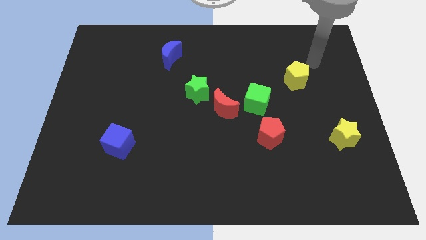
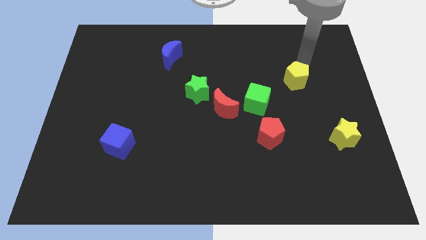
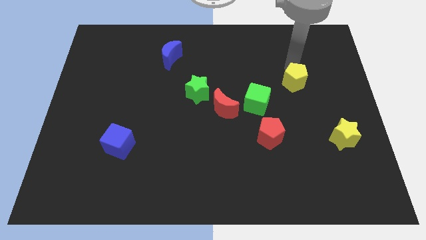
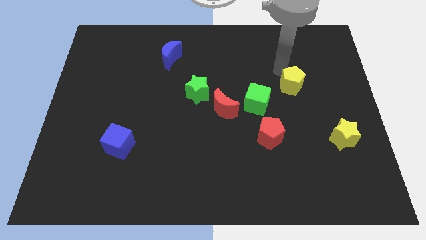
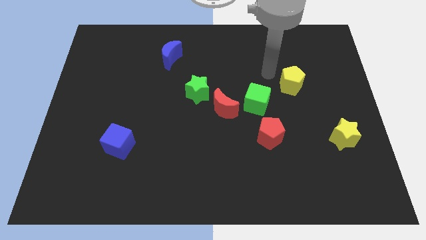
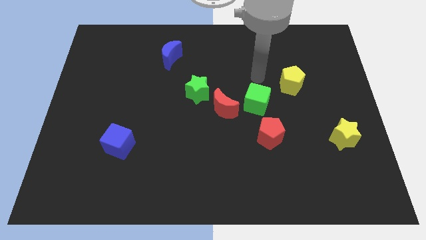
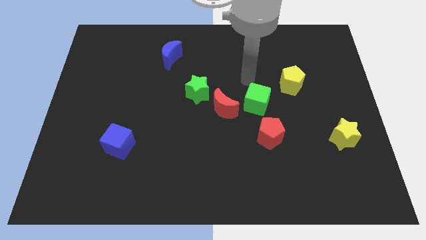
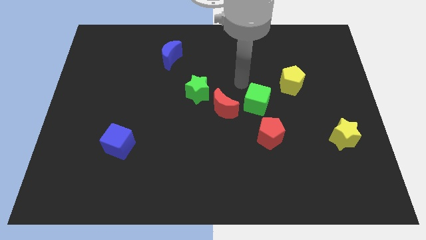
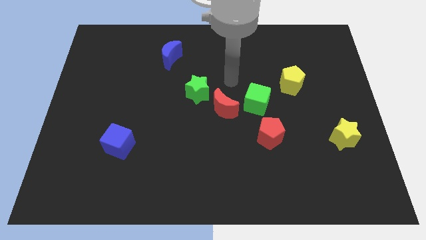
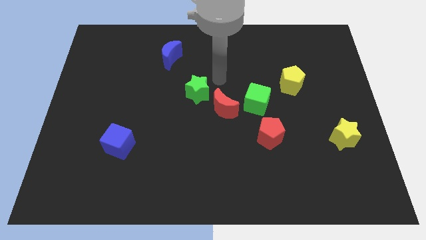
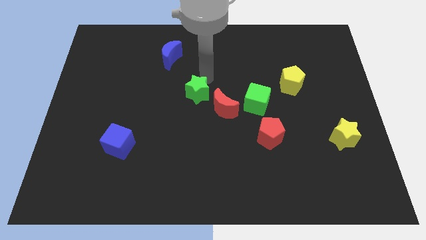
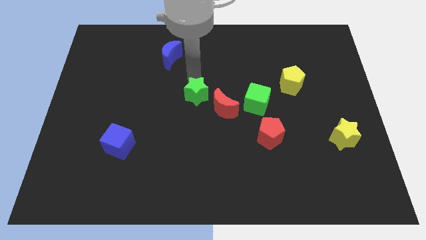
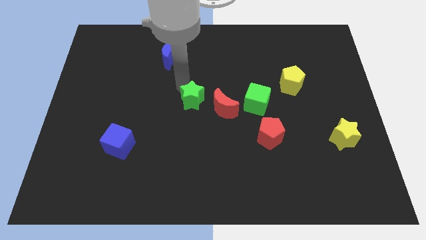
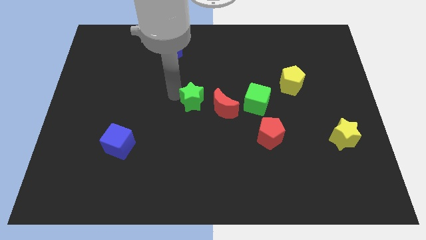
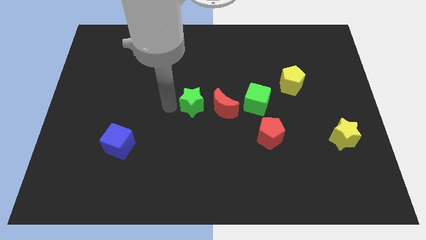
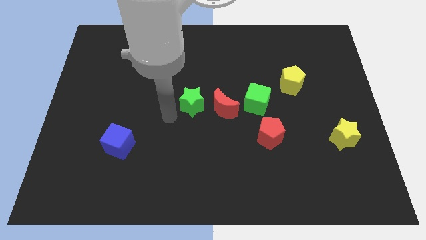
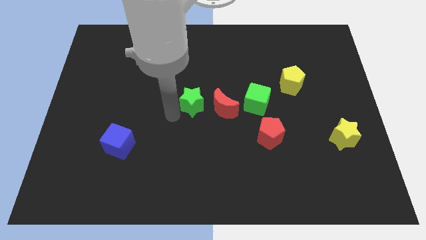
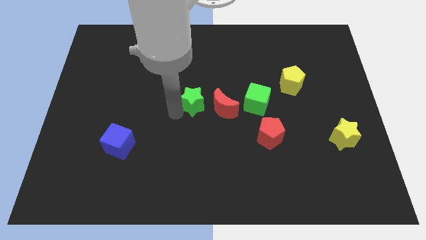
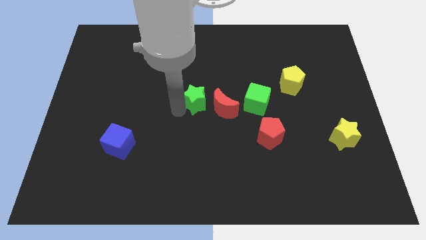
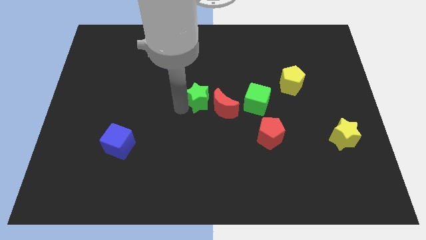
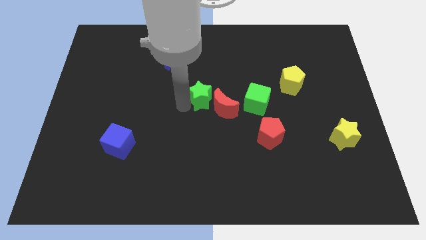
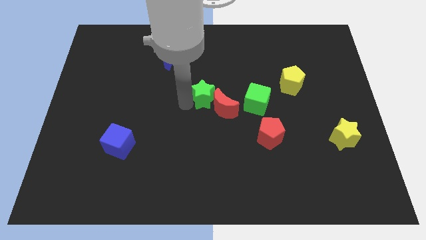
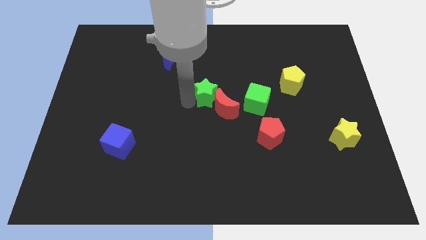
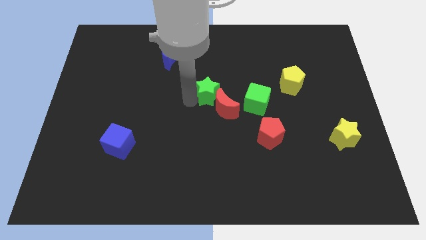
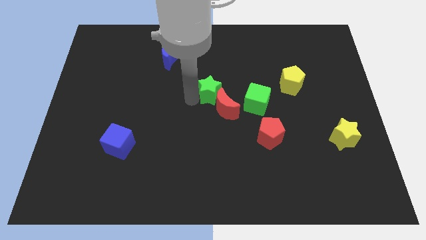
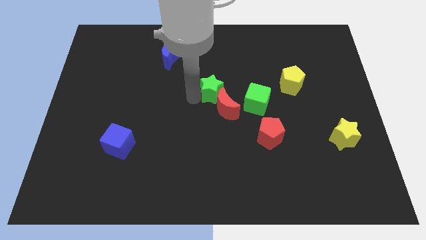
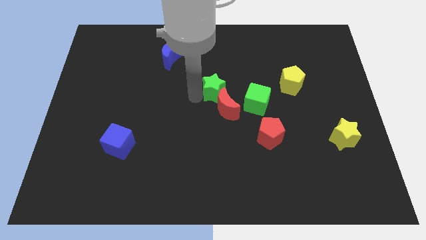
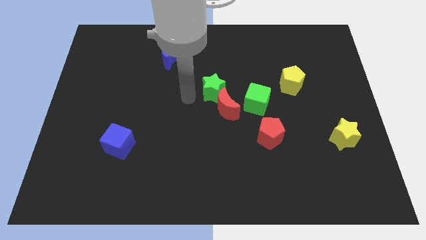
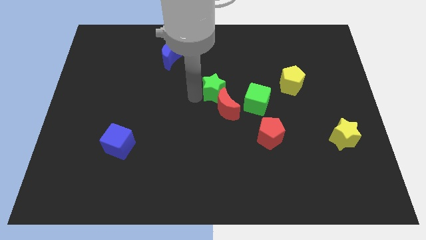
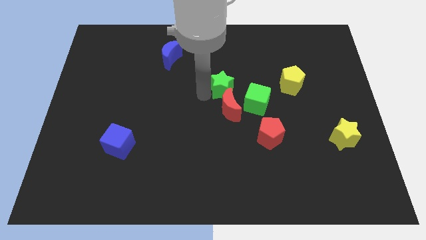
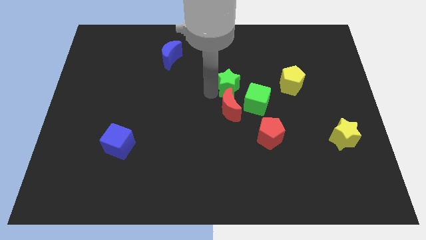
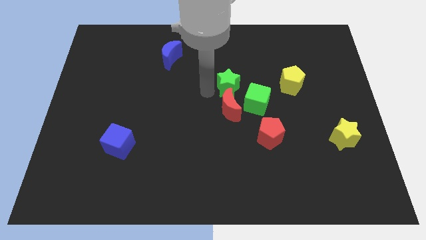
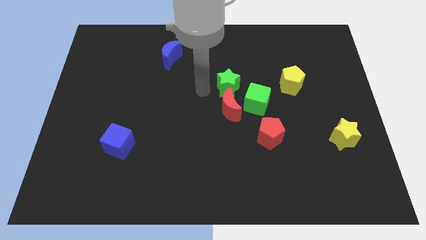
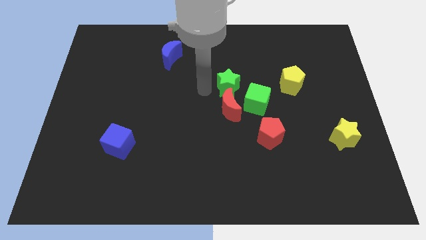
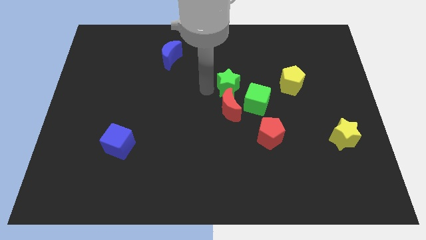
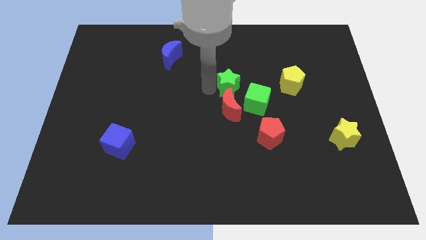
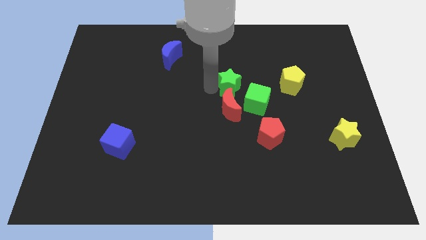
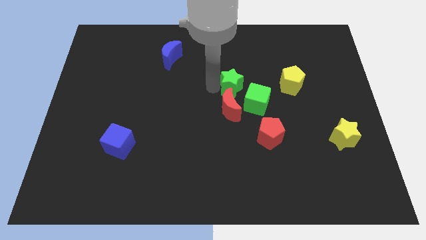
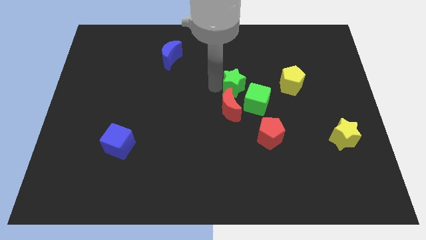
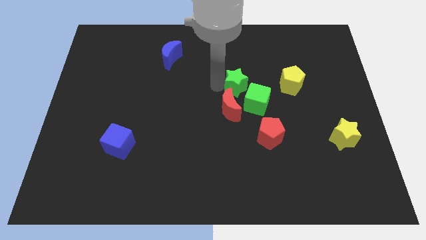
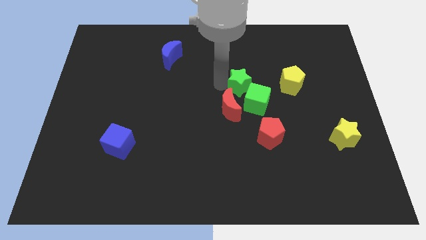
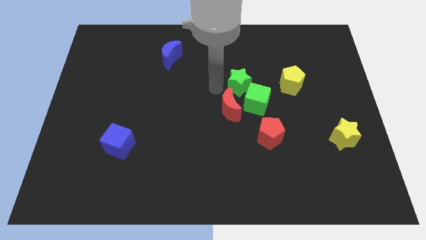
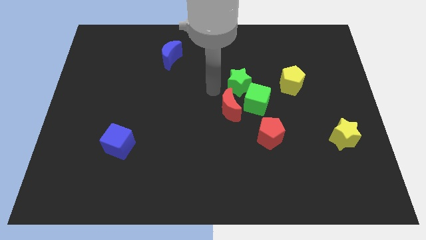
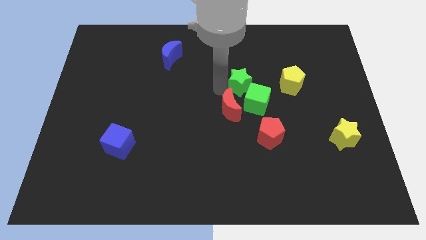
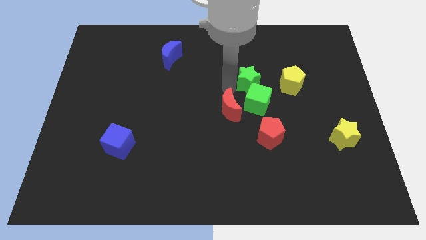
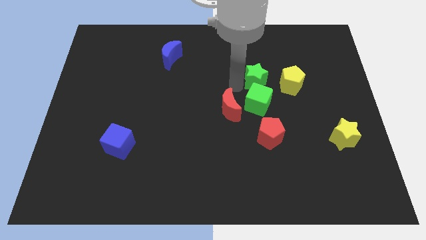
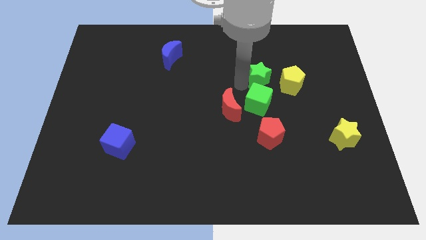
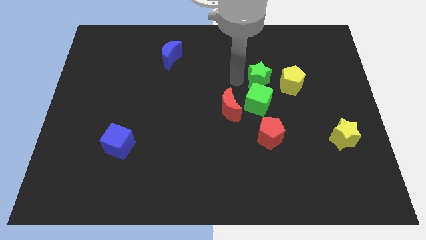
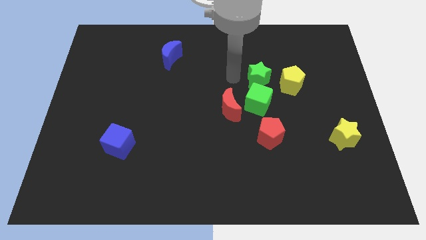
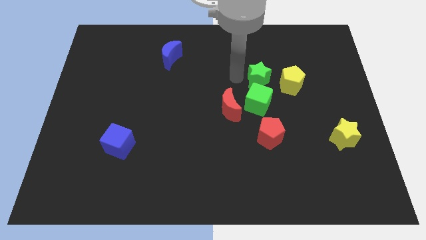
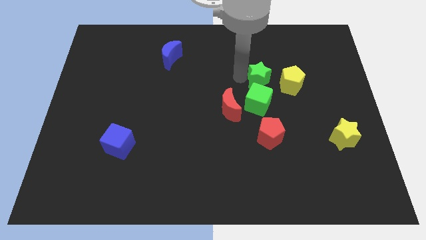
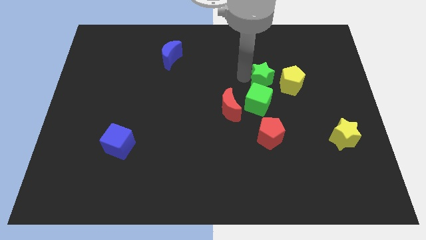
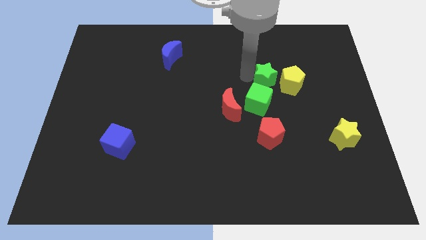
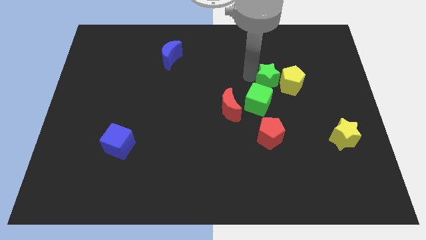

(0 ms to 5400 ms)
move the green star close to the yellow pentagon

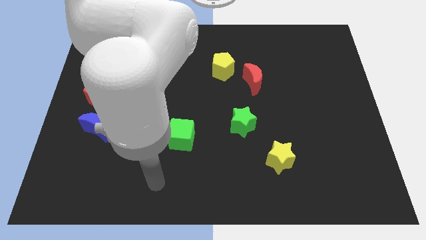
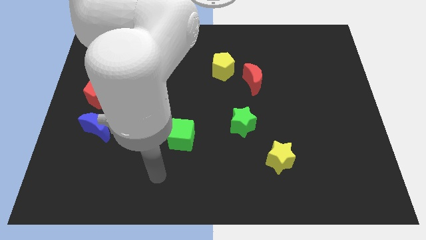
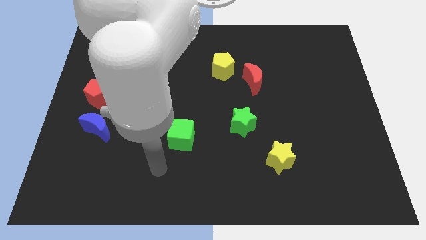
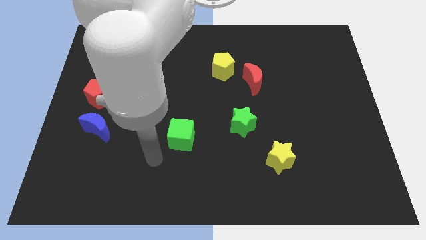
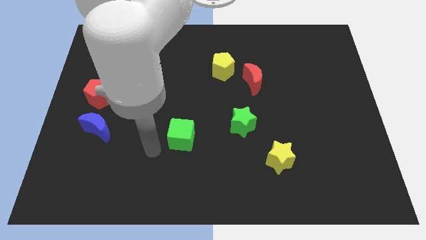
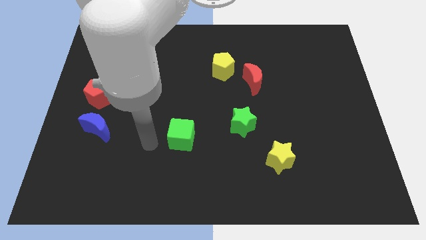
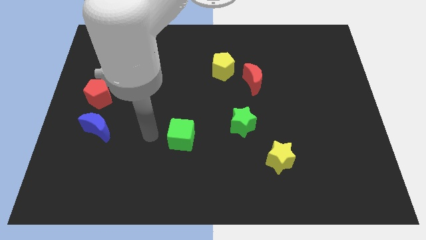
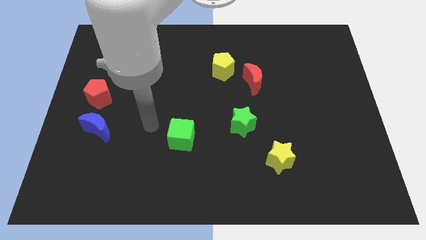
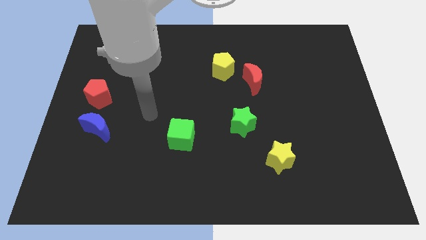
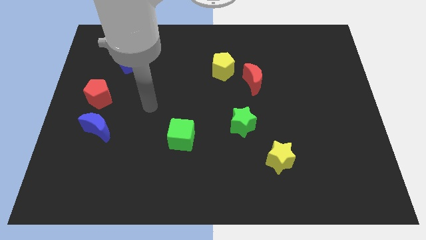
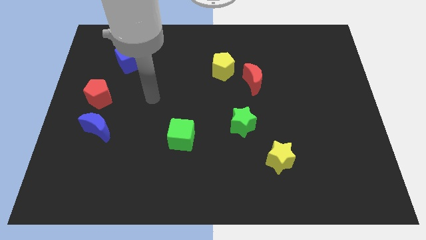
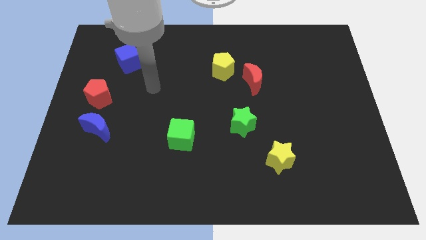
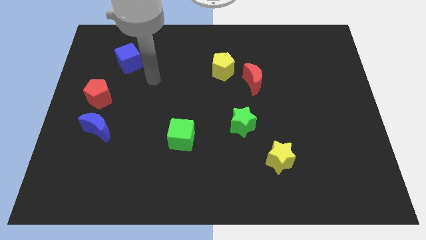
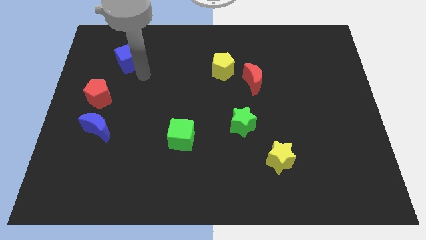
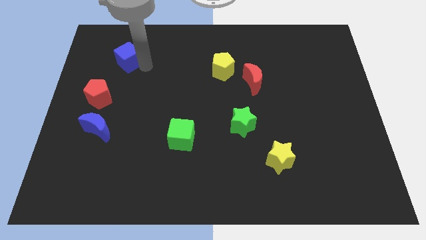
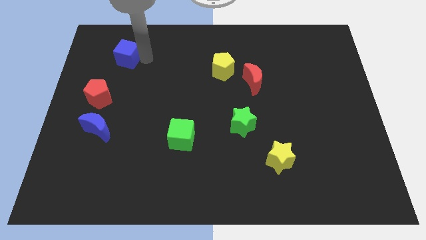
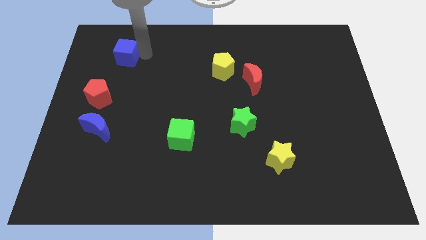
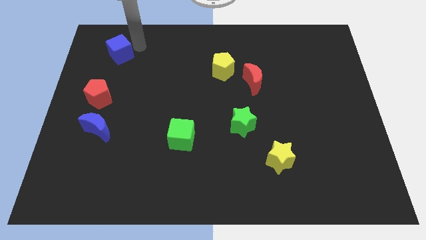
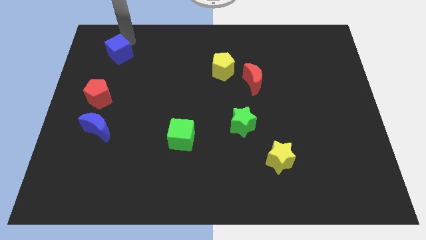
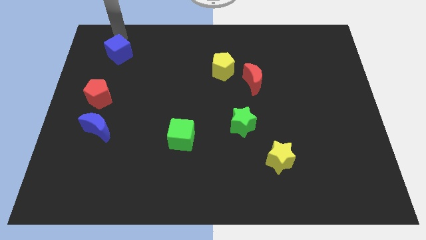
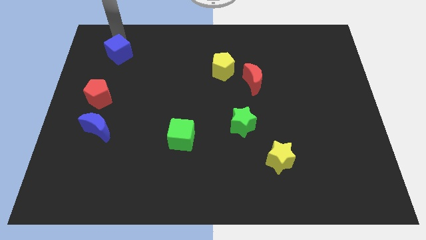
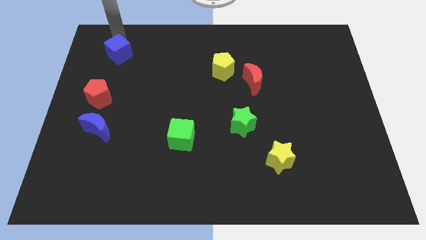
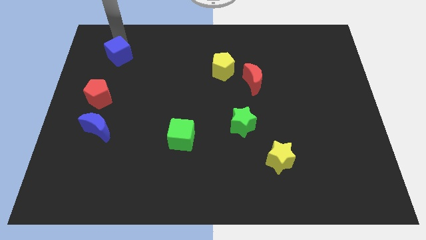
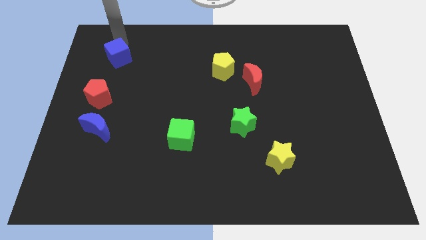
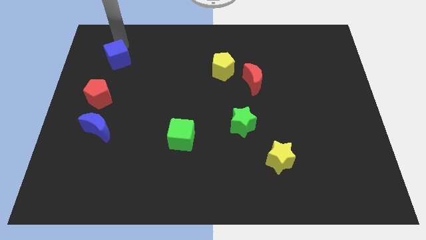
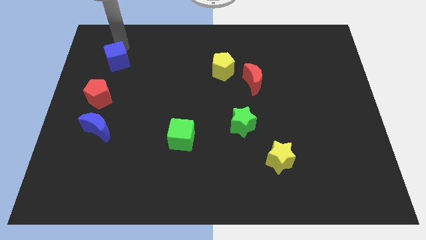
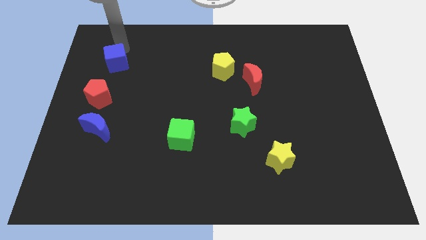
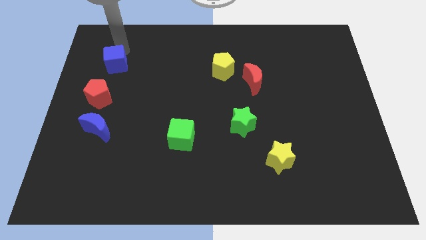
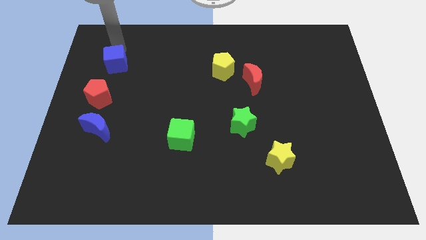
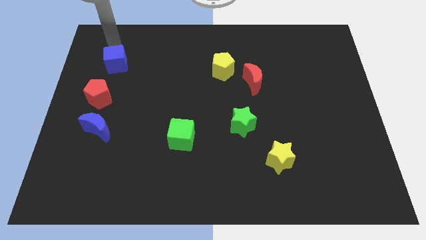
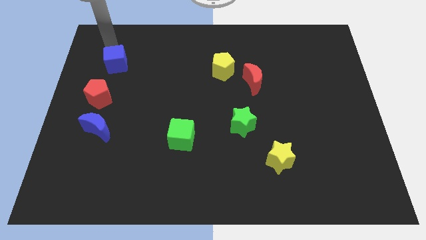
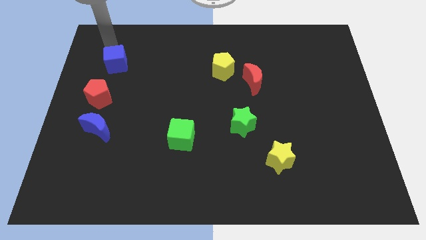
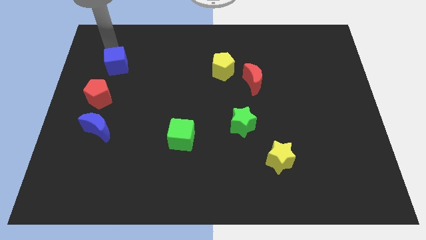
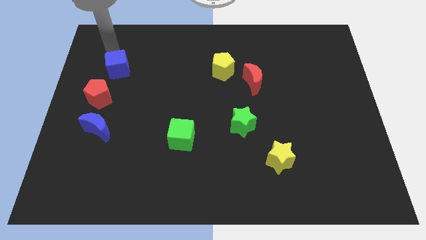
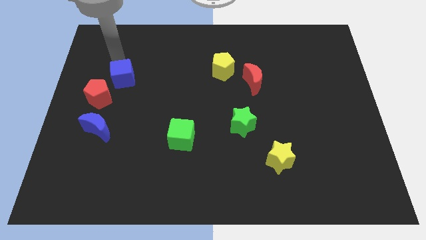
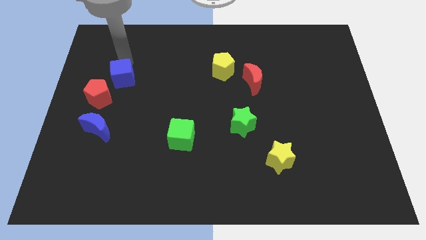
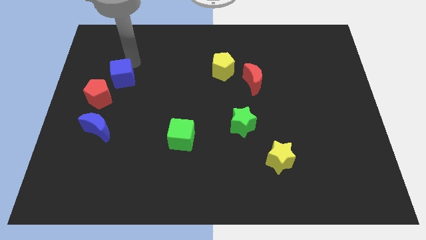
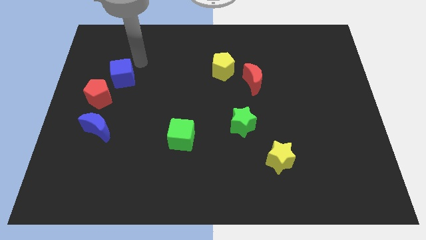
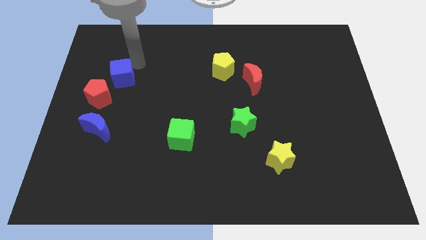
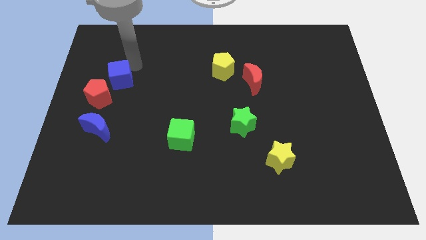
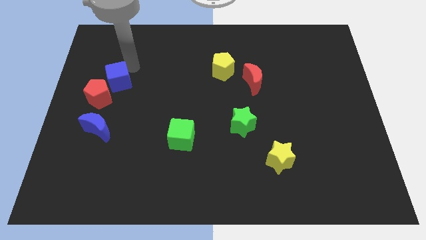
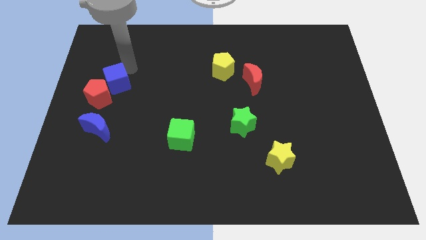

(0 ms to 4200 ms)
move the blue cube towards the red pentagon
